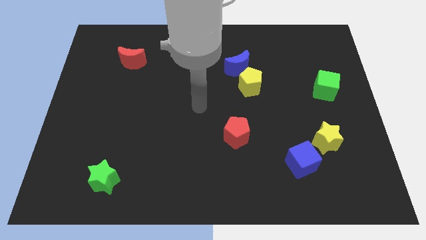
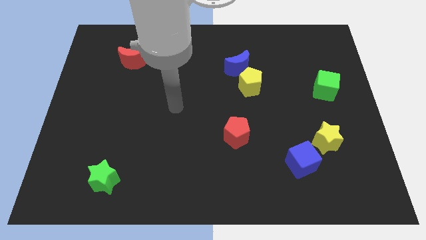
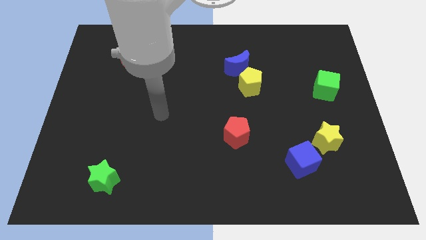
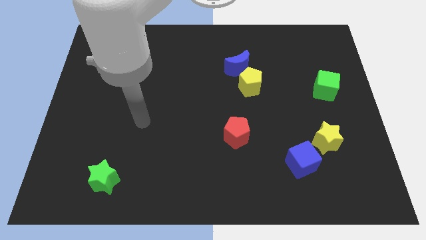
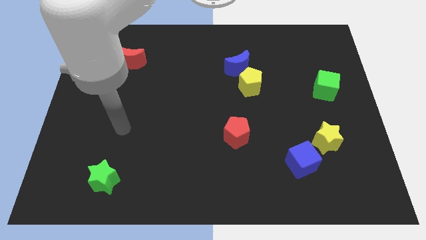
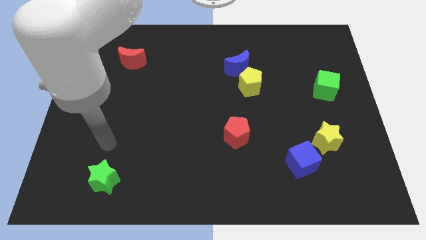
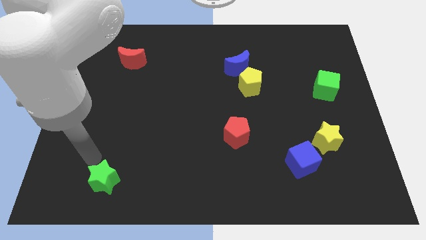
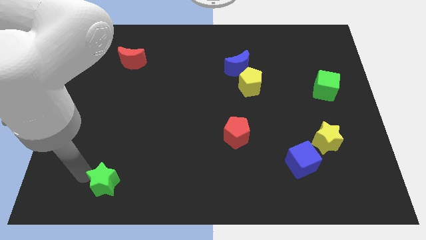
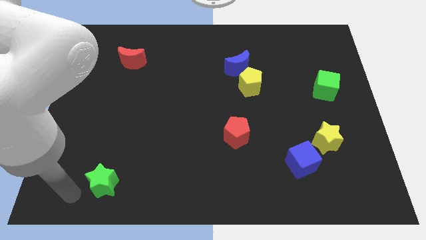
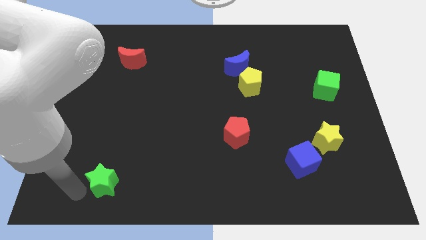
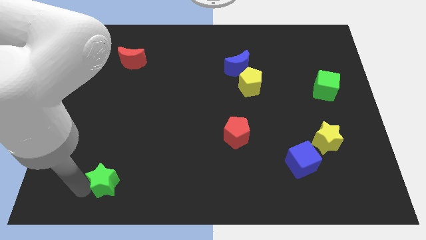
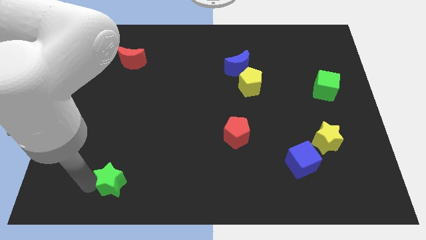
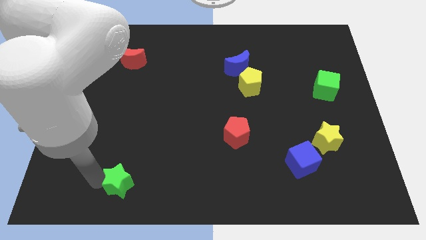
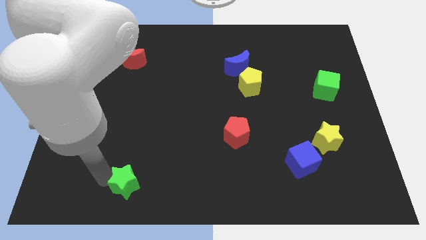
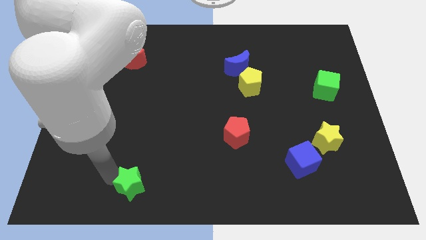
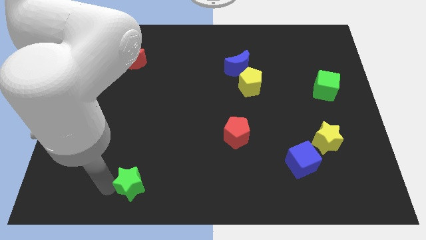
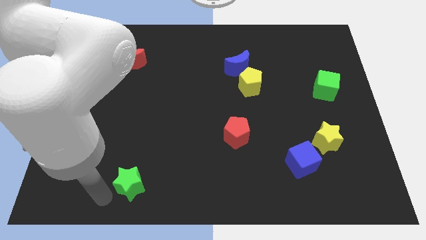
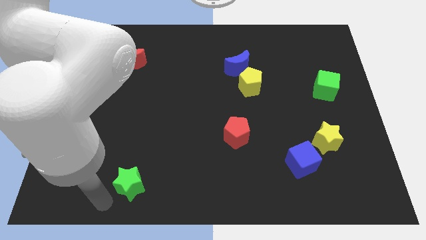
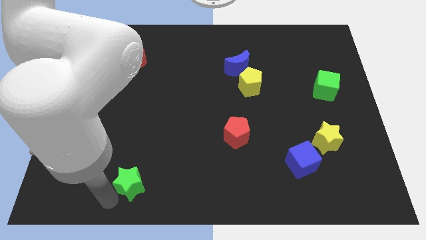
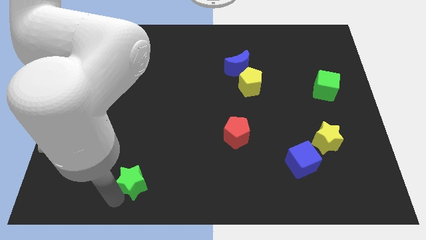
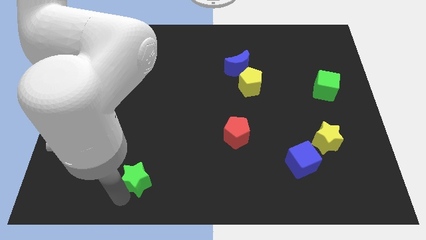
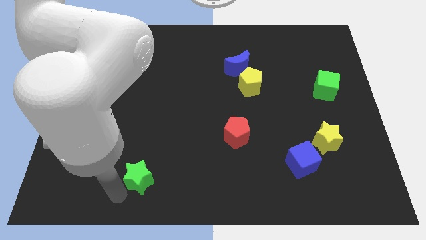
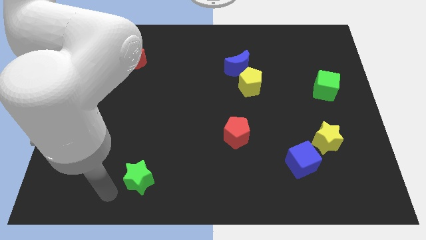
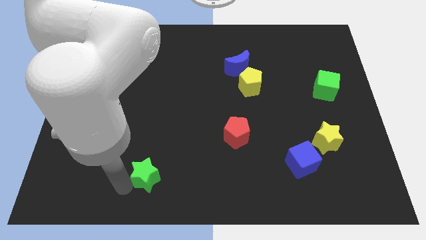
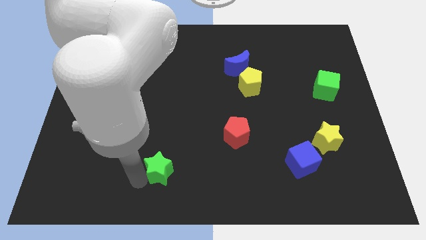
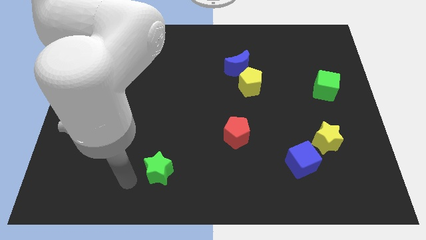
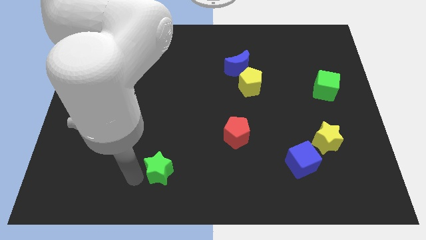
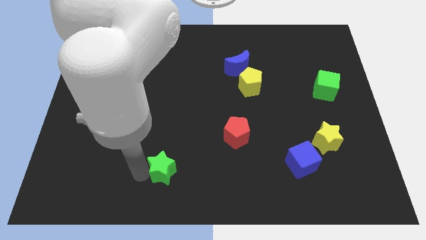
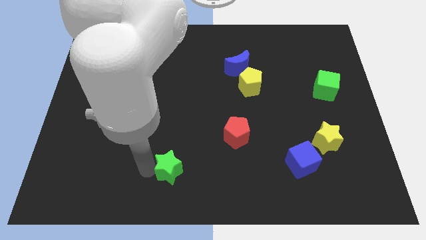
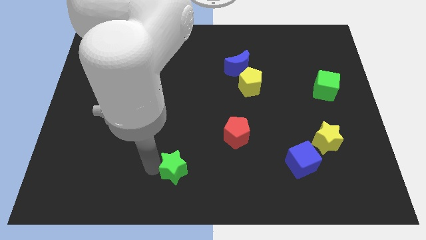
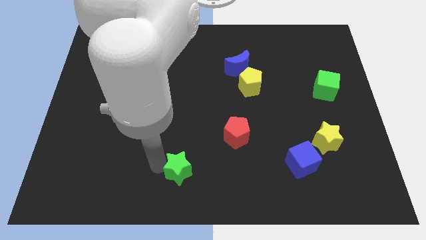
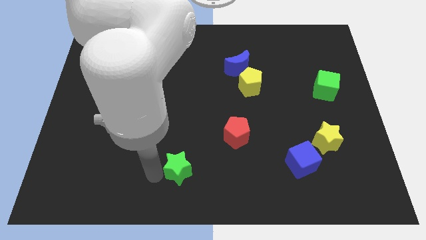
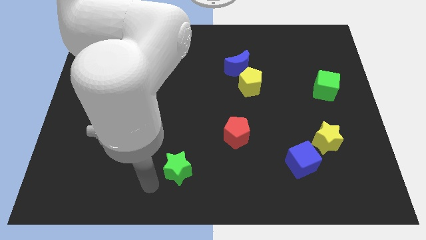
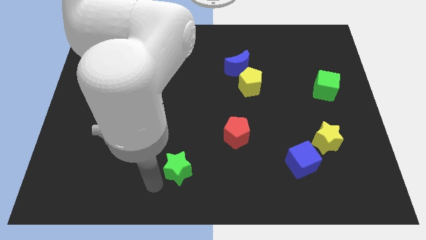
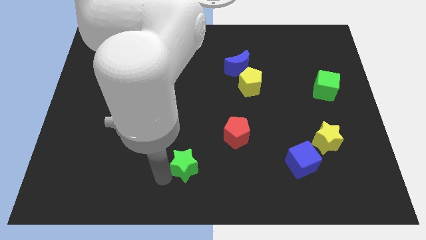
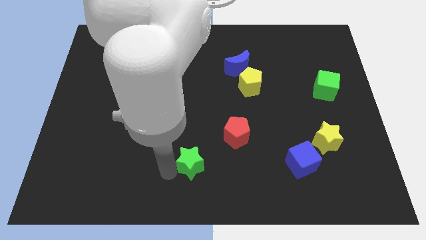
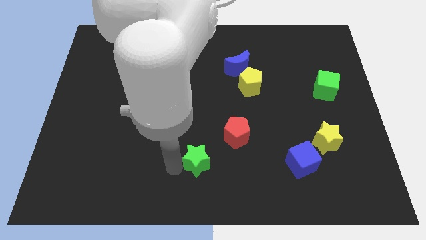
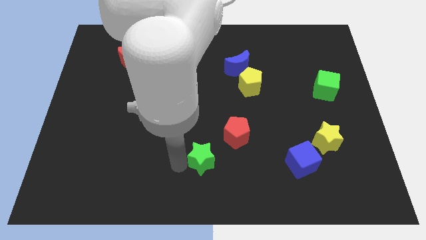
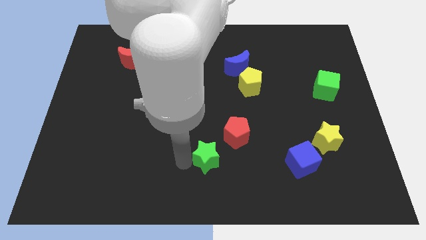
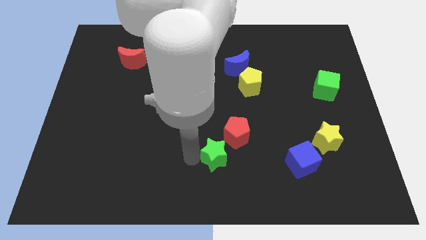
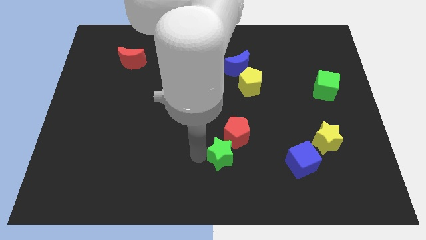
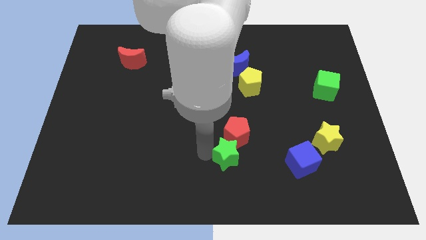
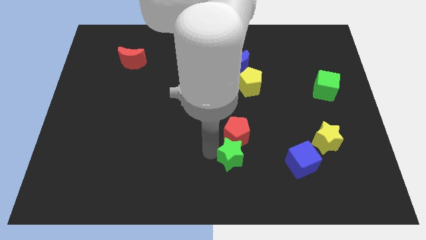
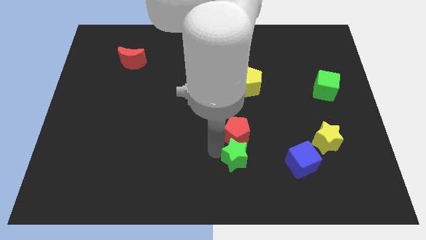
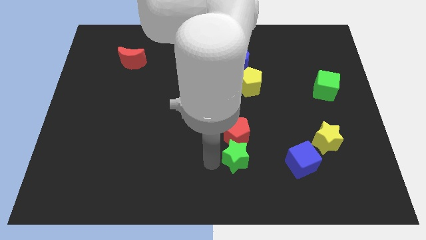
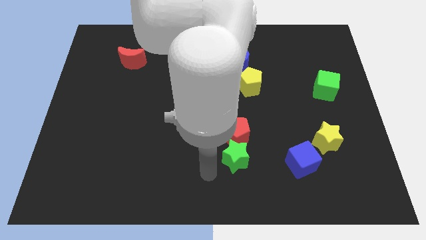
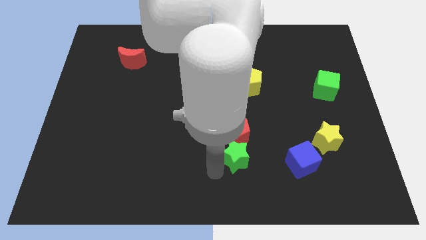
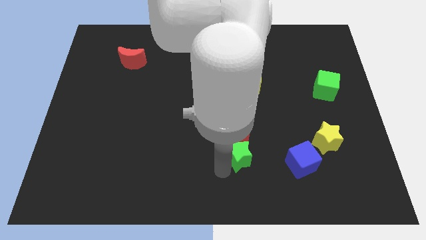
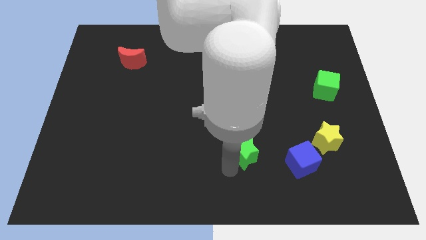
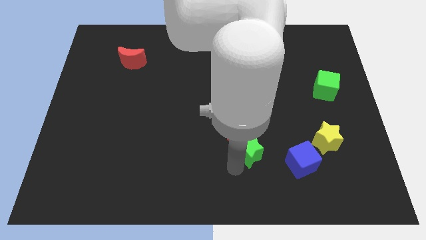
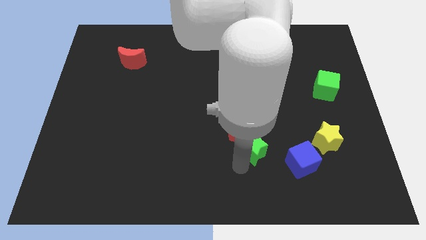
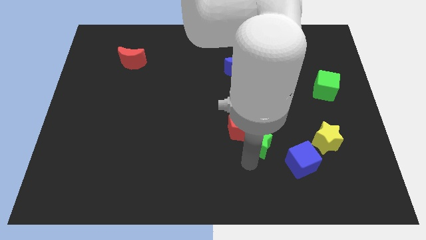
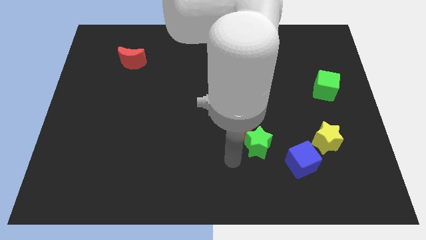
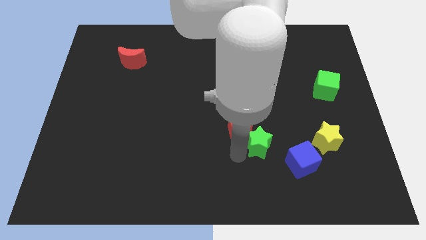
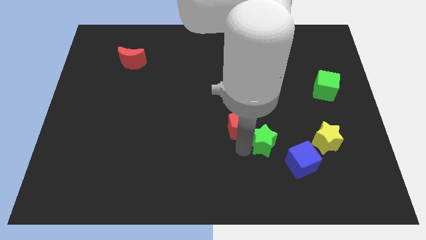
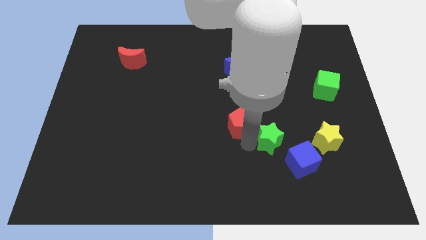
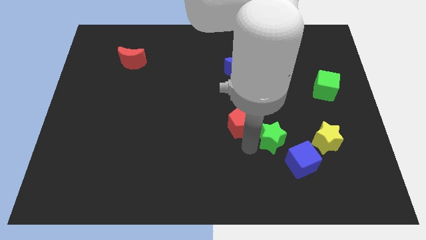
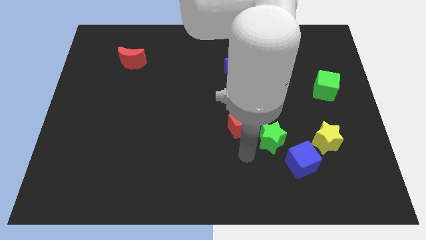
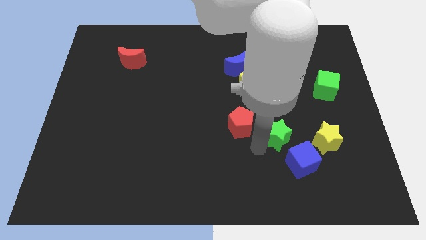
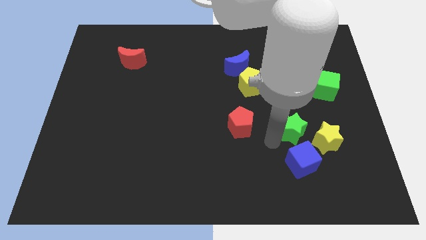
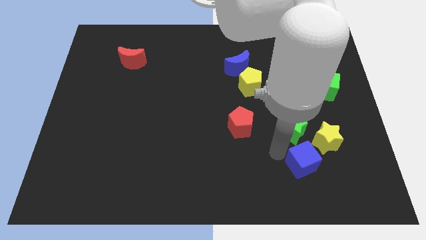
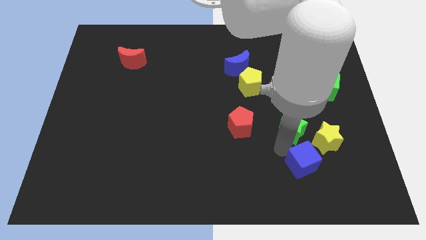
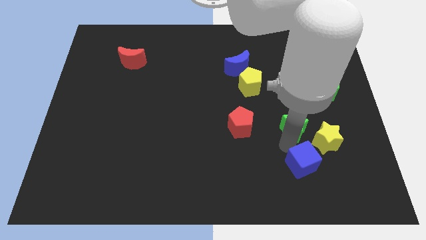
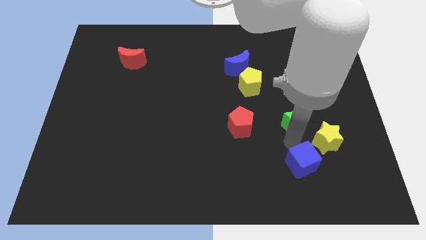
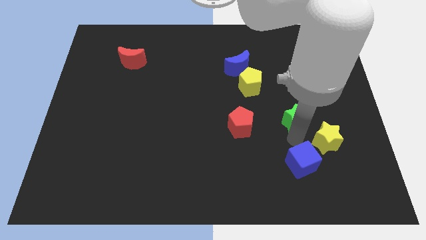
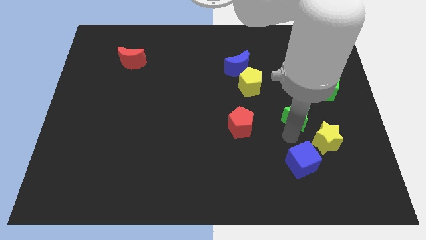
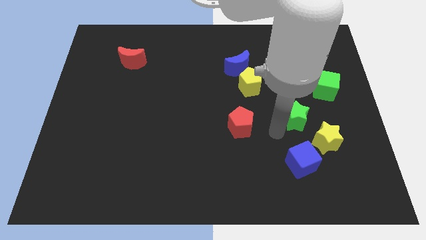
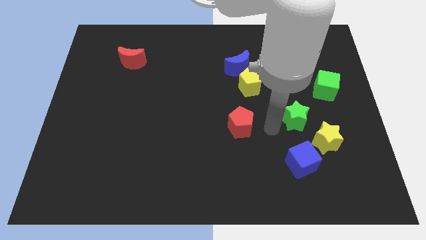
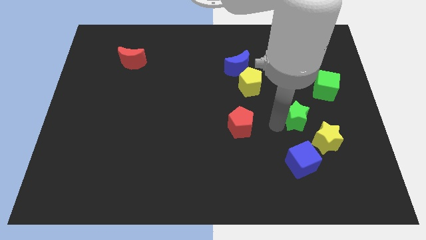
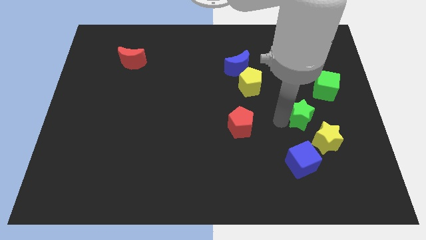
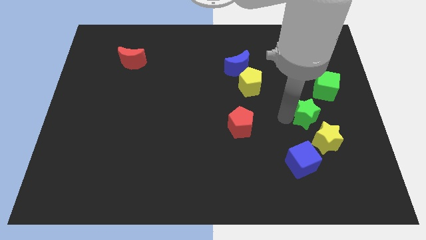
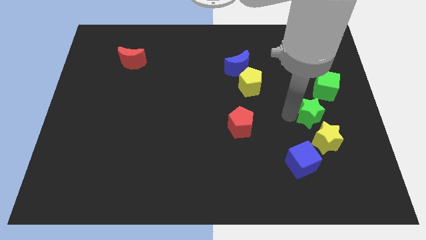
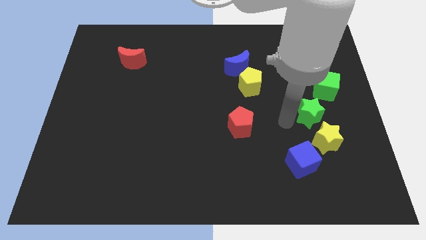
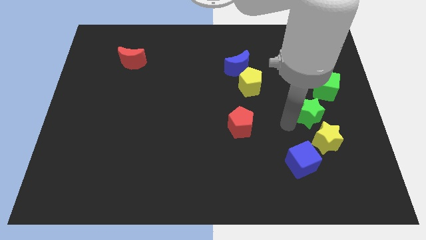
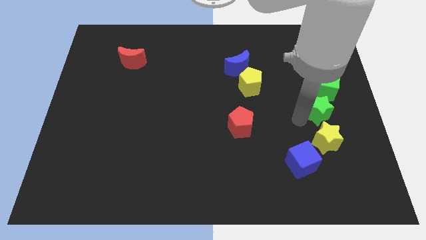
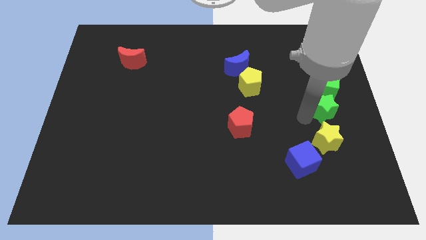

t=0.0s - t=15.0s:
push the green star to the right side
